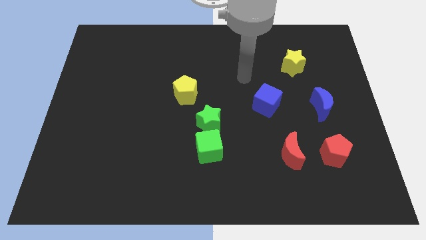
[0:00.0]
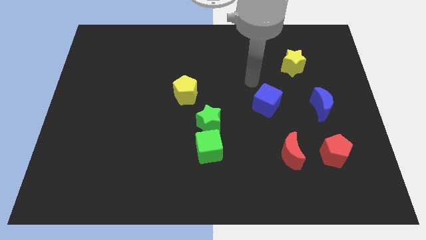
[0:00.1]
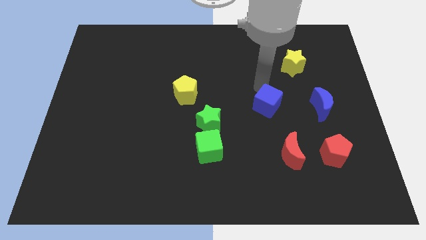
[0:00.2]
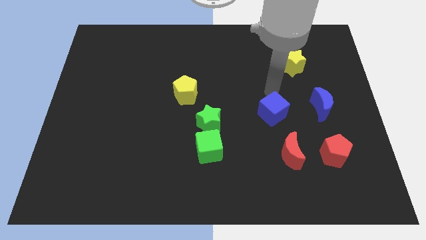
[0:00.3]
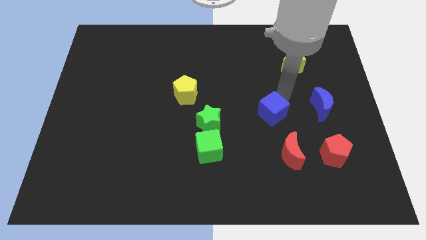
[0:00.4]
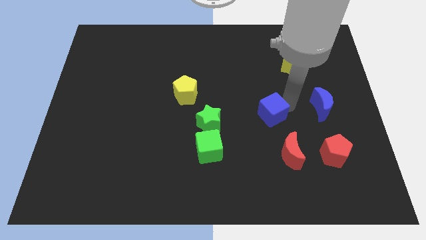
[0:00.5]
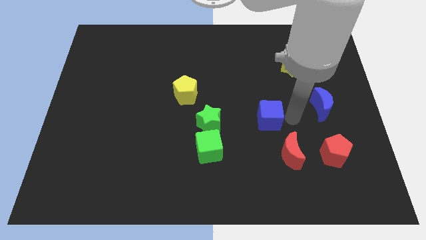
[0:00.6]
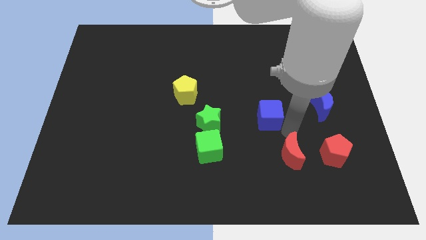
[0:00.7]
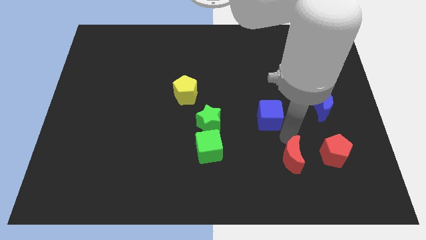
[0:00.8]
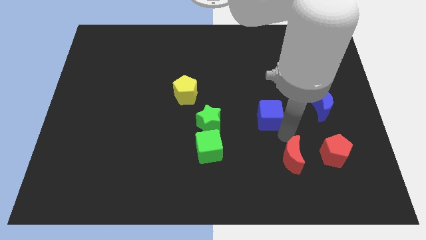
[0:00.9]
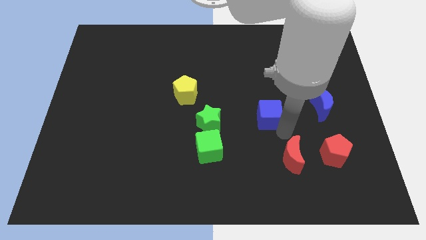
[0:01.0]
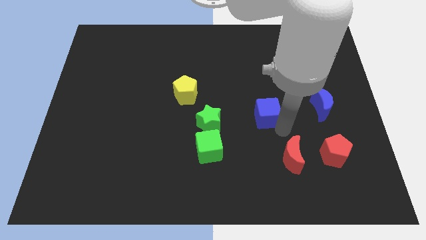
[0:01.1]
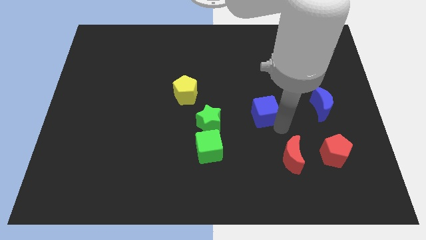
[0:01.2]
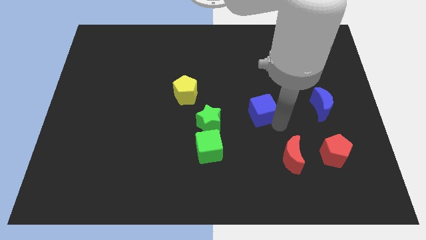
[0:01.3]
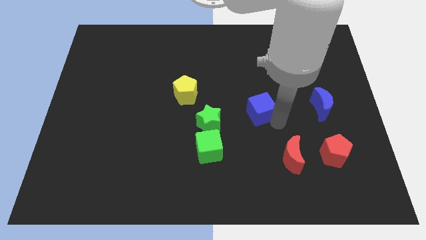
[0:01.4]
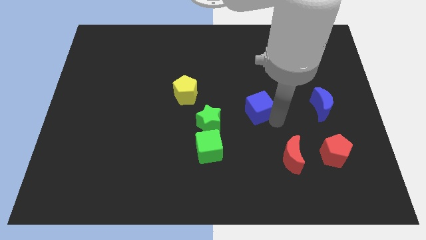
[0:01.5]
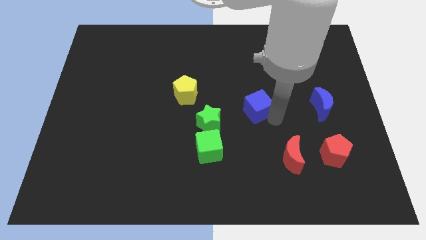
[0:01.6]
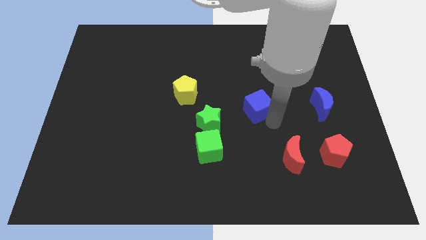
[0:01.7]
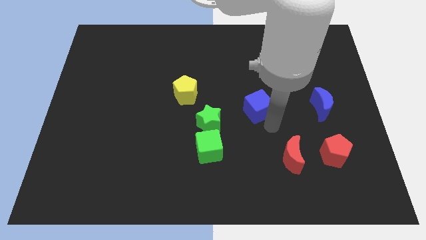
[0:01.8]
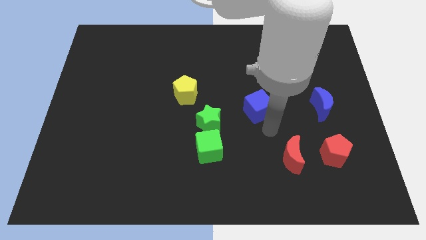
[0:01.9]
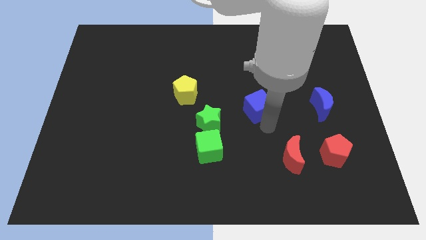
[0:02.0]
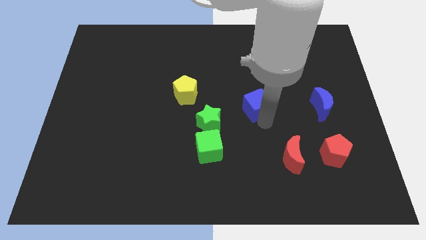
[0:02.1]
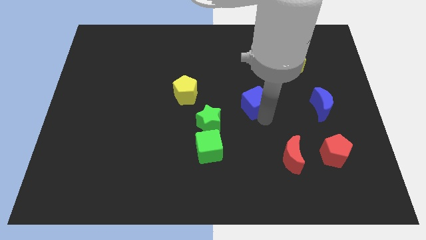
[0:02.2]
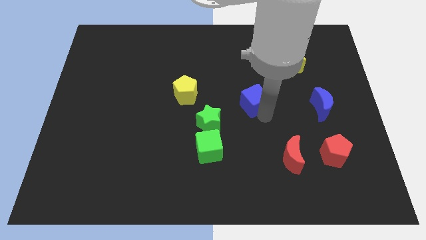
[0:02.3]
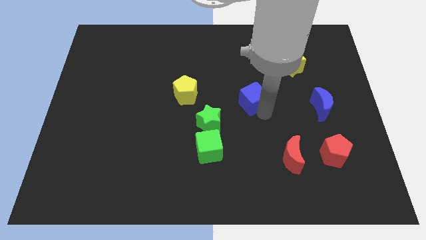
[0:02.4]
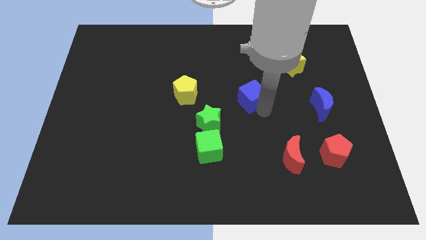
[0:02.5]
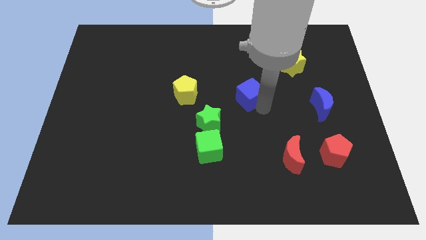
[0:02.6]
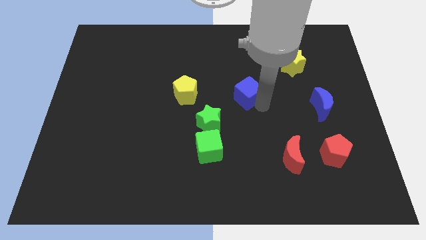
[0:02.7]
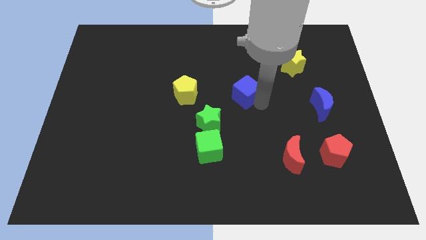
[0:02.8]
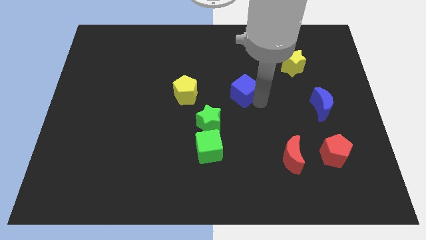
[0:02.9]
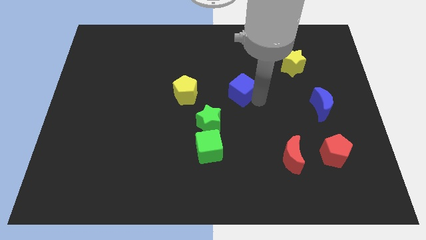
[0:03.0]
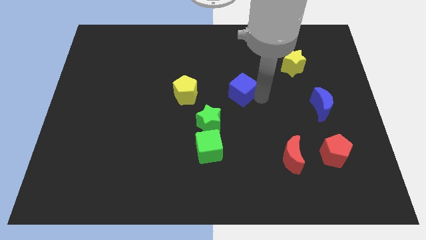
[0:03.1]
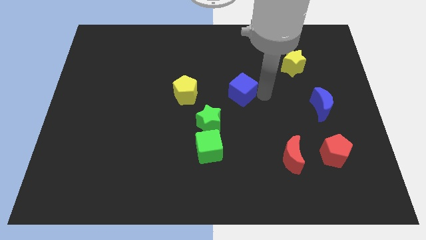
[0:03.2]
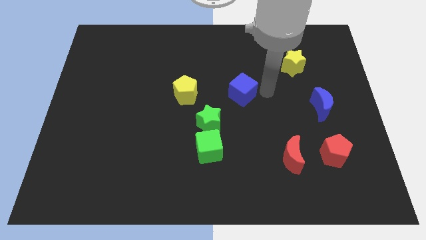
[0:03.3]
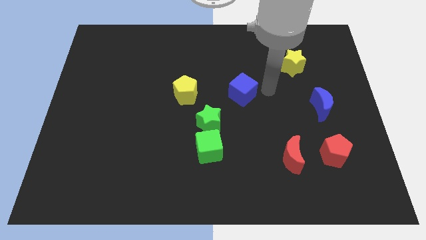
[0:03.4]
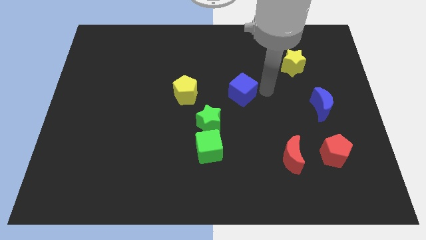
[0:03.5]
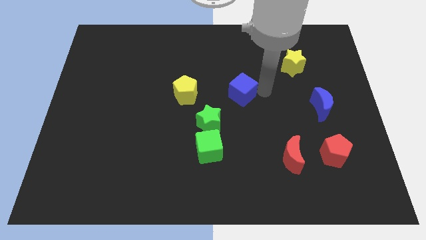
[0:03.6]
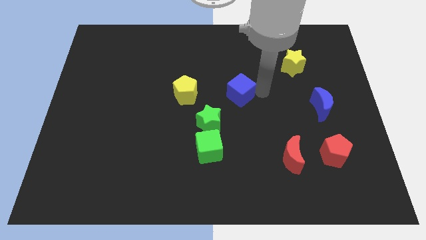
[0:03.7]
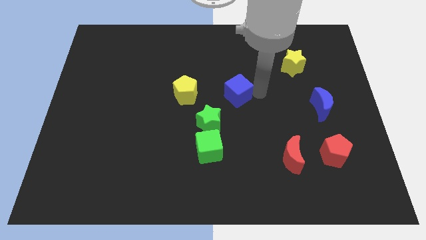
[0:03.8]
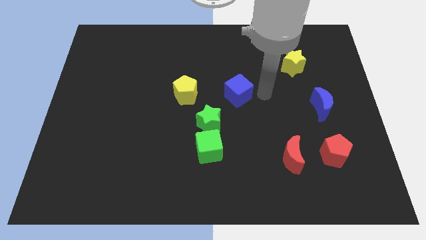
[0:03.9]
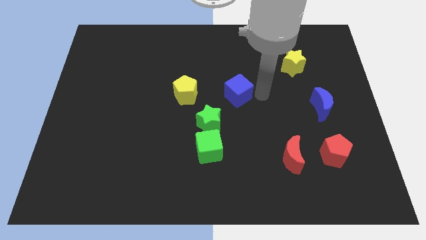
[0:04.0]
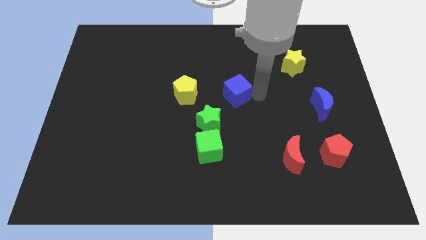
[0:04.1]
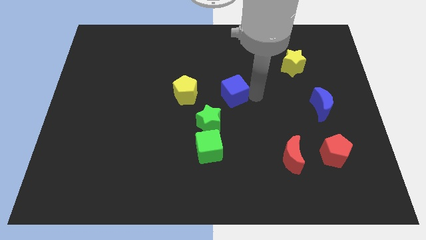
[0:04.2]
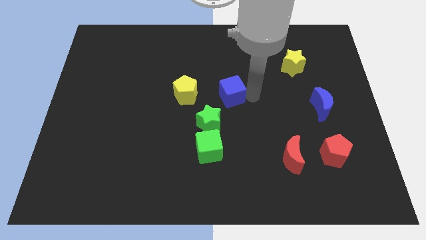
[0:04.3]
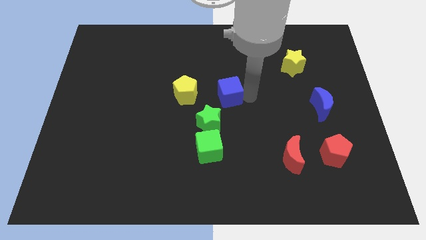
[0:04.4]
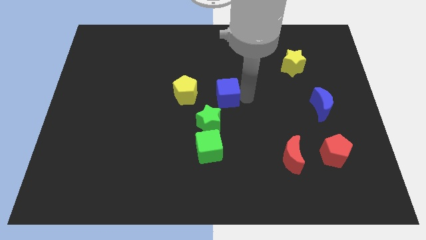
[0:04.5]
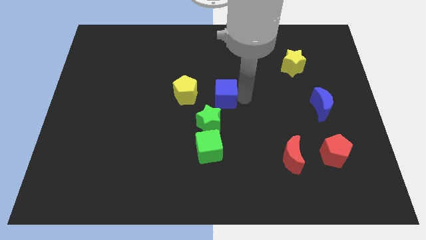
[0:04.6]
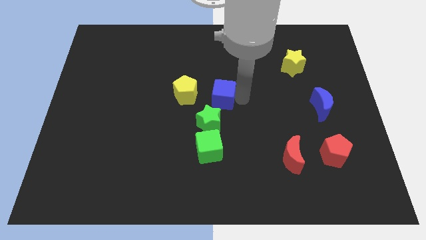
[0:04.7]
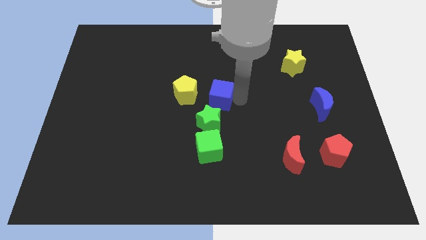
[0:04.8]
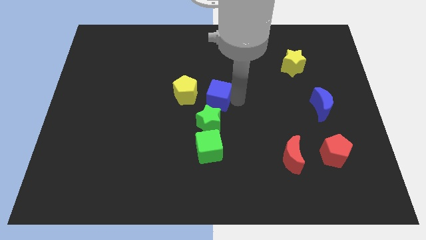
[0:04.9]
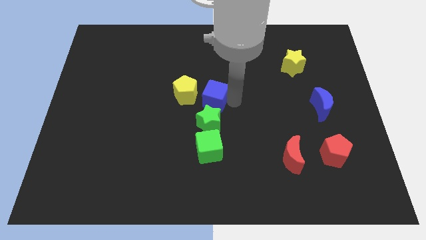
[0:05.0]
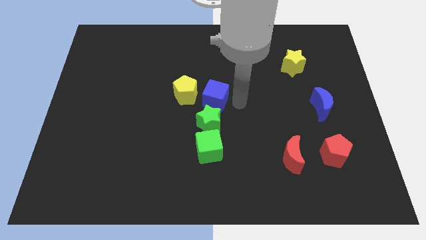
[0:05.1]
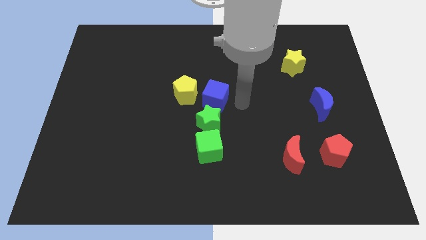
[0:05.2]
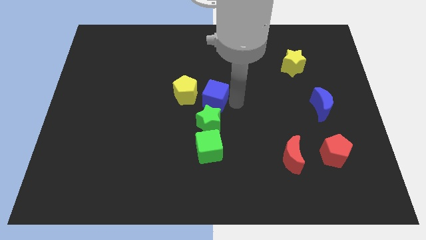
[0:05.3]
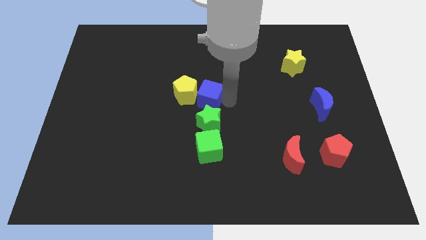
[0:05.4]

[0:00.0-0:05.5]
push the blue cube next to the yellow pentagon

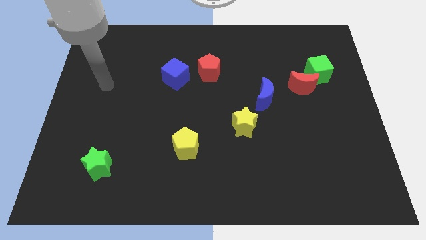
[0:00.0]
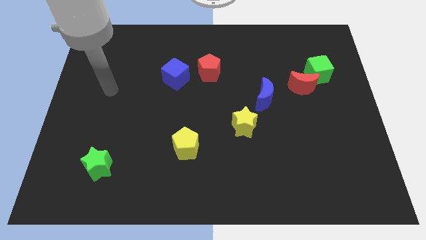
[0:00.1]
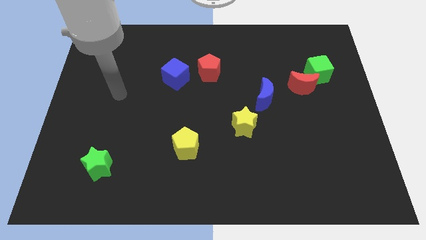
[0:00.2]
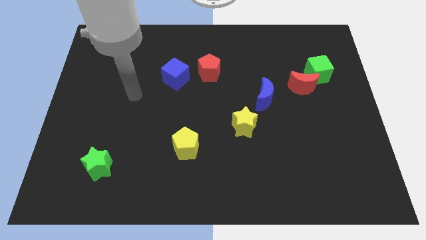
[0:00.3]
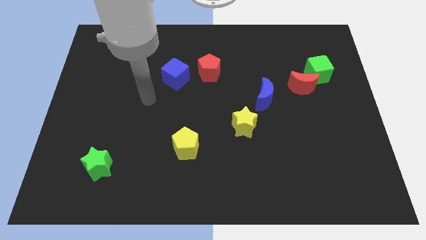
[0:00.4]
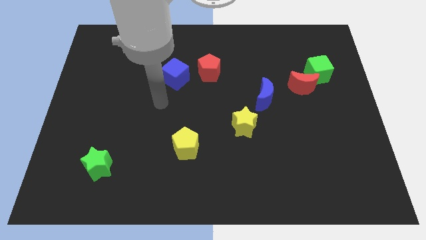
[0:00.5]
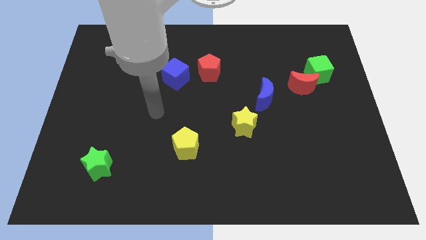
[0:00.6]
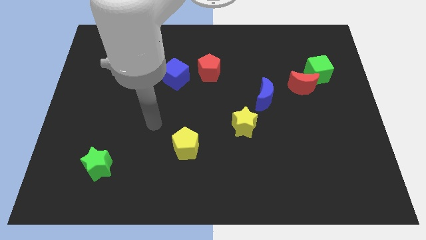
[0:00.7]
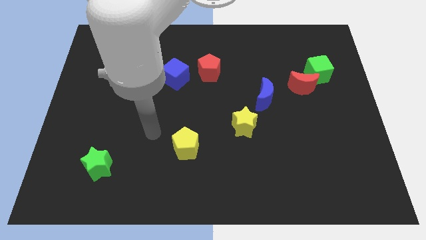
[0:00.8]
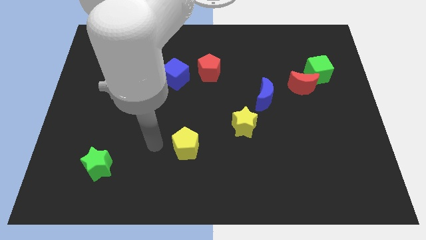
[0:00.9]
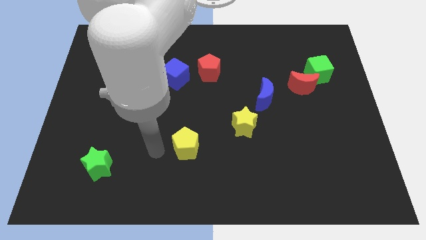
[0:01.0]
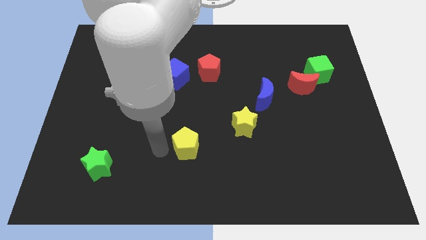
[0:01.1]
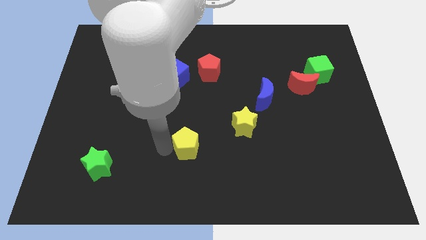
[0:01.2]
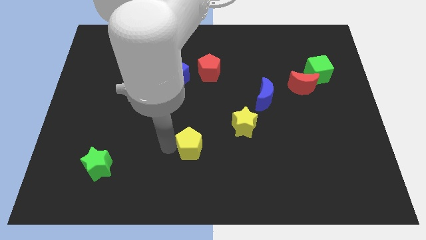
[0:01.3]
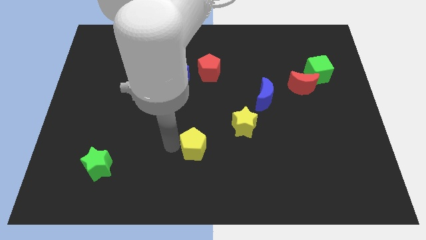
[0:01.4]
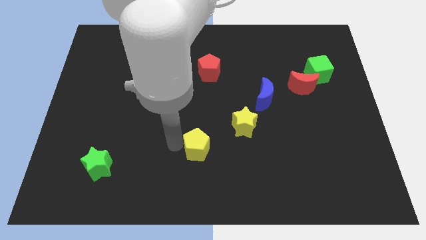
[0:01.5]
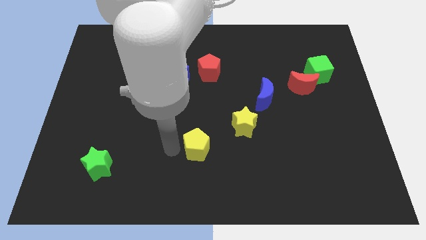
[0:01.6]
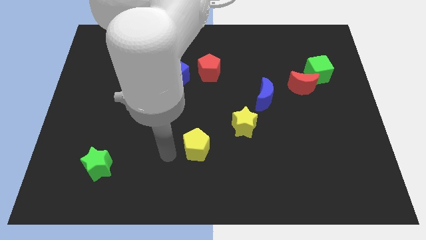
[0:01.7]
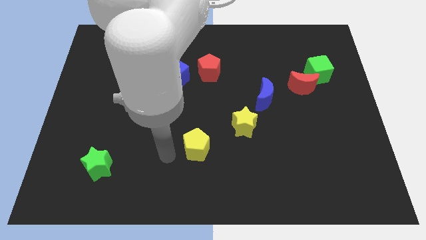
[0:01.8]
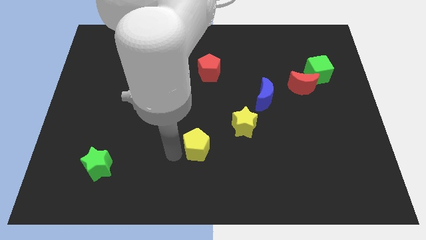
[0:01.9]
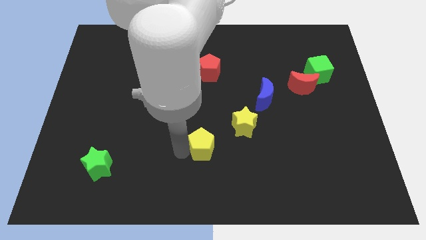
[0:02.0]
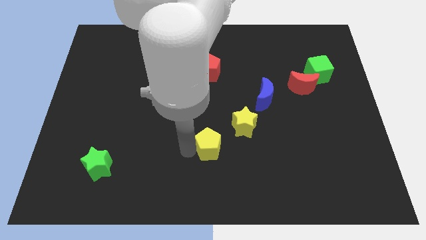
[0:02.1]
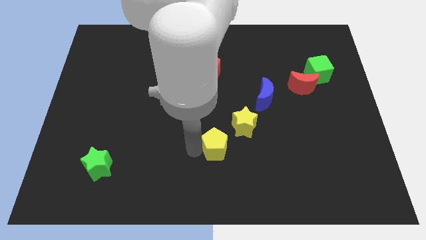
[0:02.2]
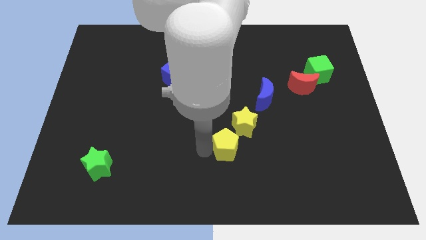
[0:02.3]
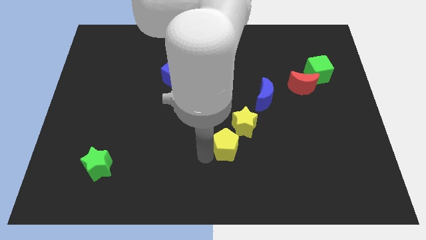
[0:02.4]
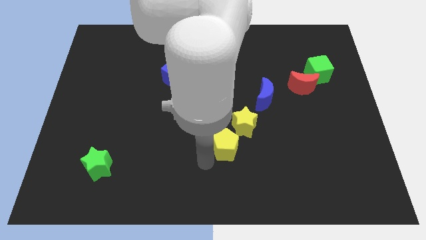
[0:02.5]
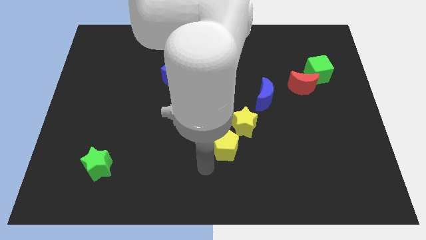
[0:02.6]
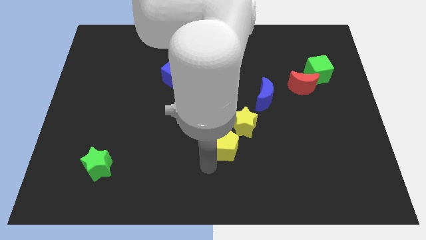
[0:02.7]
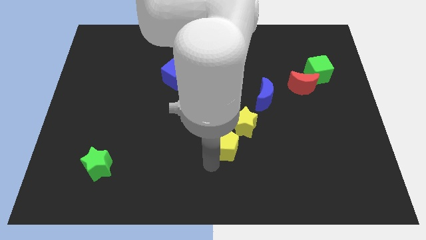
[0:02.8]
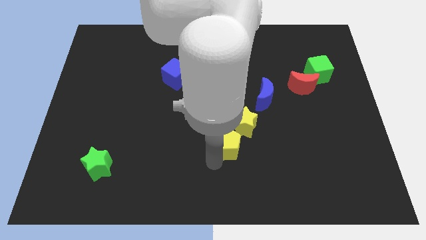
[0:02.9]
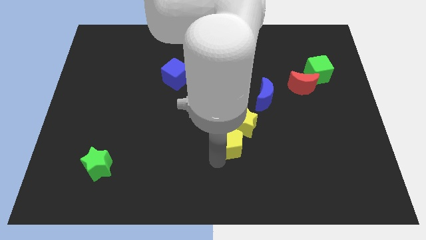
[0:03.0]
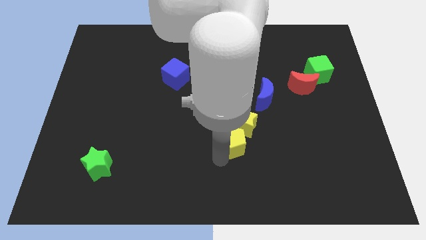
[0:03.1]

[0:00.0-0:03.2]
put the yellow pentagon next to the yellow star
